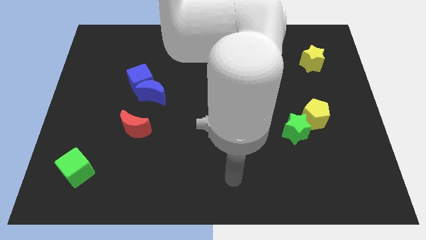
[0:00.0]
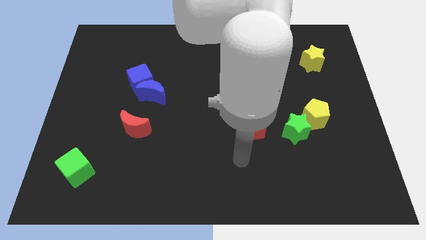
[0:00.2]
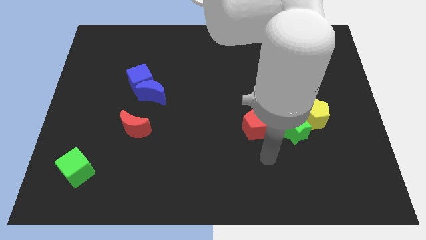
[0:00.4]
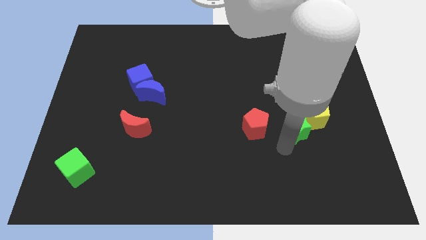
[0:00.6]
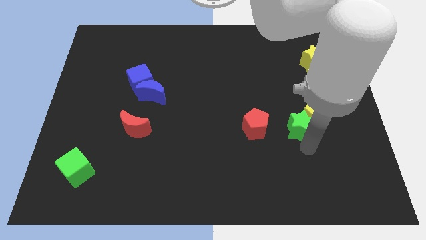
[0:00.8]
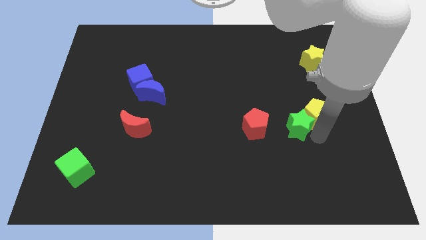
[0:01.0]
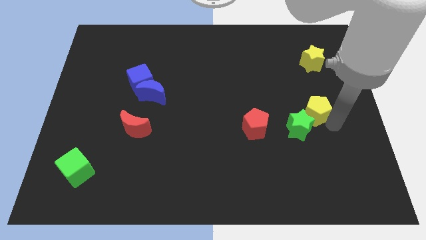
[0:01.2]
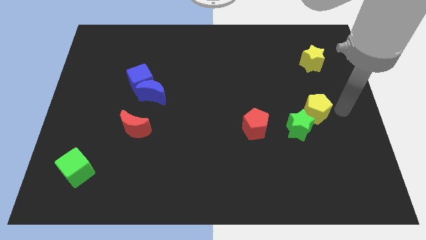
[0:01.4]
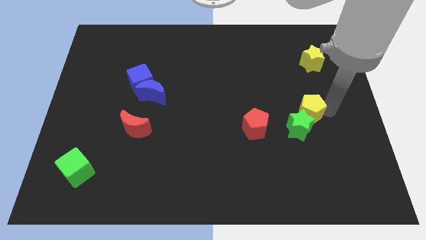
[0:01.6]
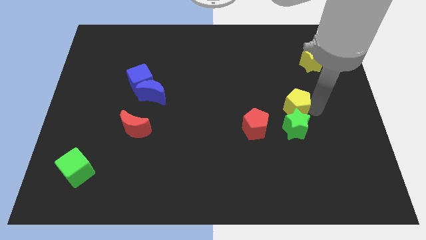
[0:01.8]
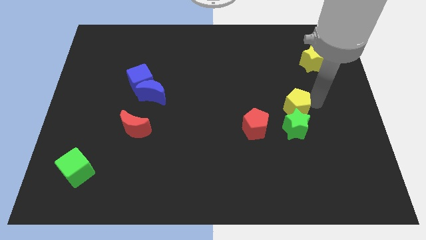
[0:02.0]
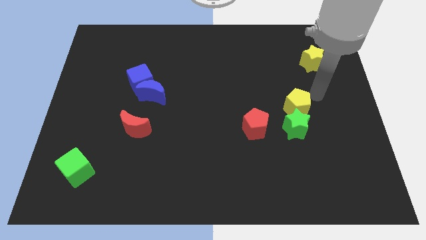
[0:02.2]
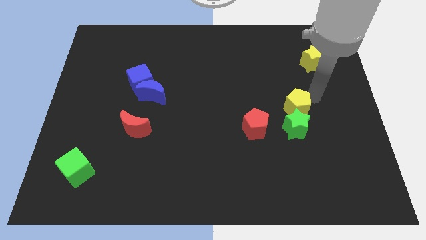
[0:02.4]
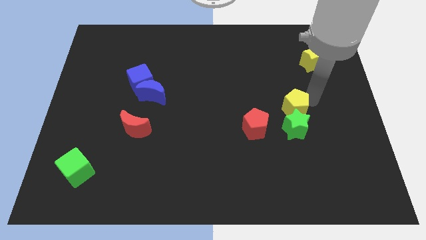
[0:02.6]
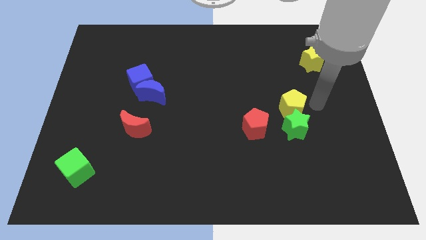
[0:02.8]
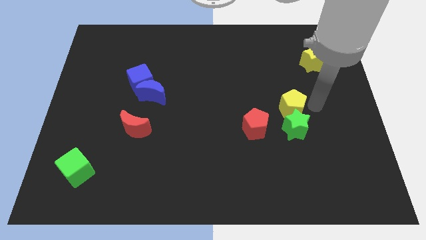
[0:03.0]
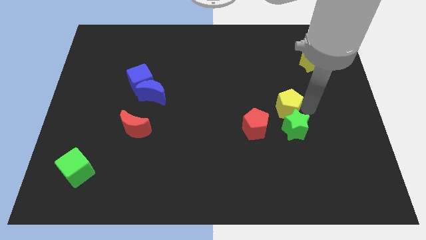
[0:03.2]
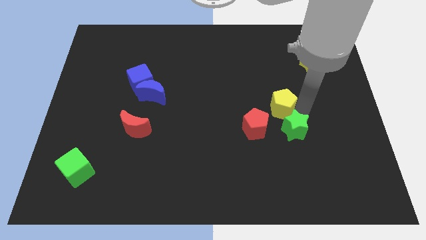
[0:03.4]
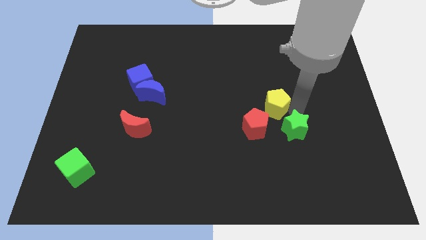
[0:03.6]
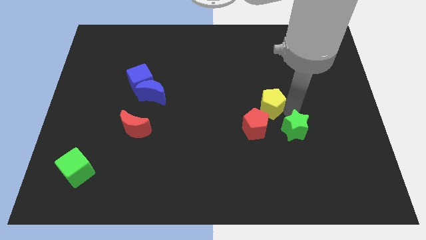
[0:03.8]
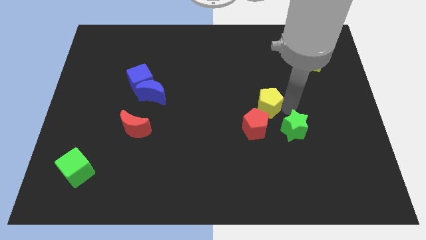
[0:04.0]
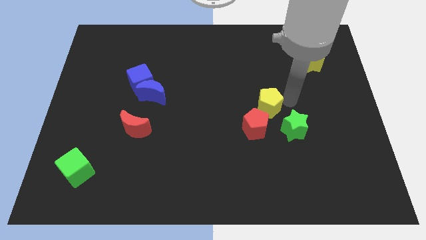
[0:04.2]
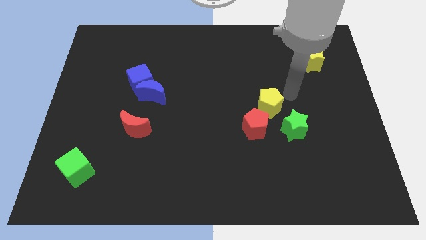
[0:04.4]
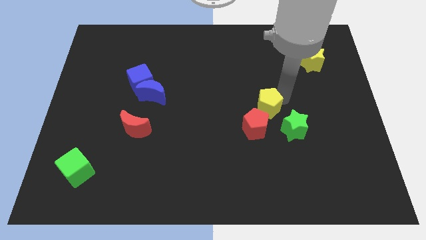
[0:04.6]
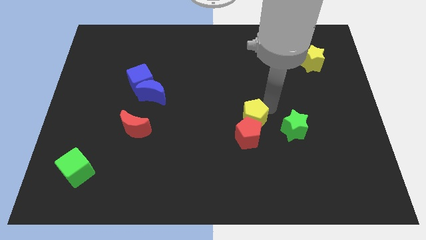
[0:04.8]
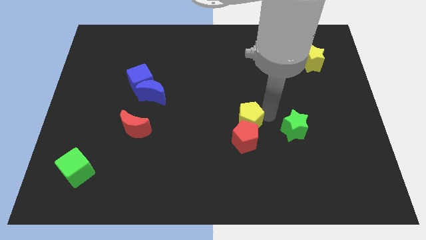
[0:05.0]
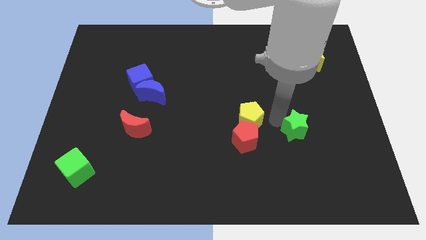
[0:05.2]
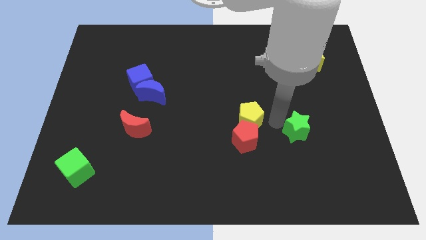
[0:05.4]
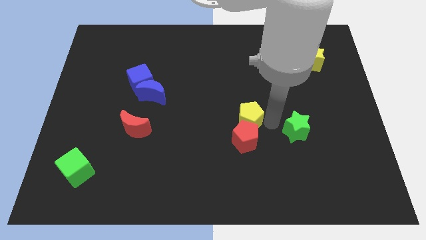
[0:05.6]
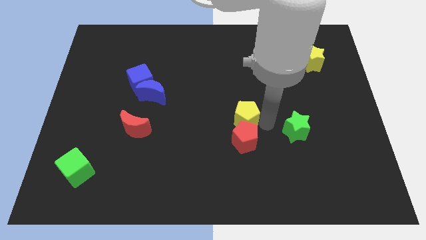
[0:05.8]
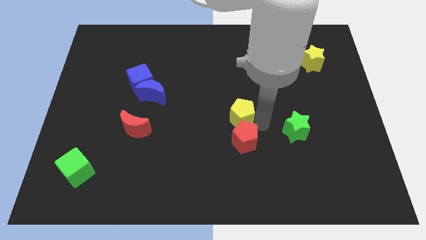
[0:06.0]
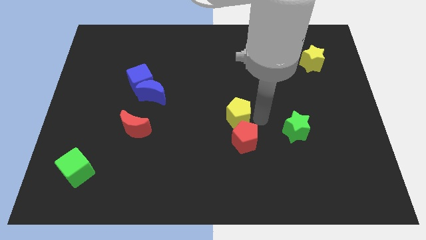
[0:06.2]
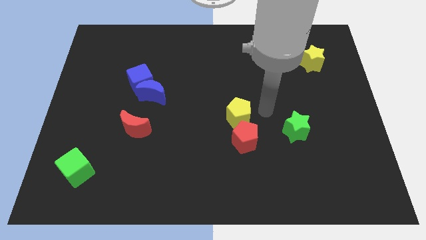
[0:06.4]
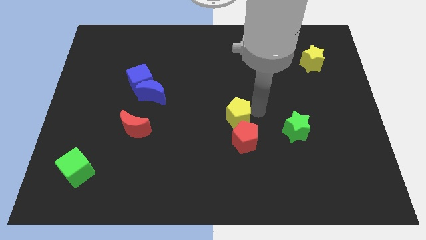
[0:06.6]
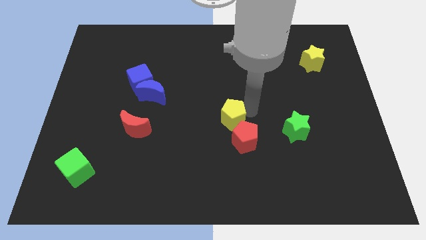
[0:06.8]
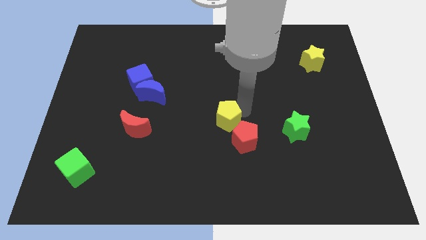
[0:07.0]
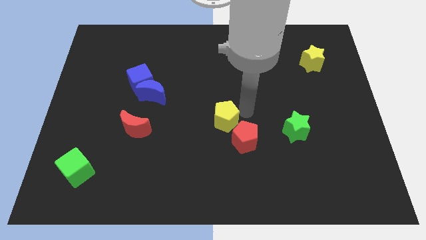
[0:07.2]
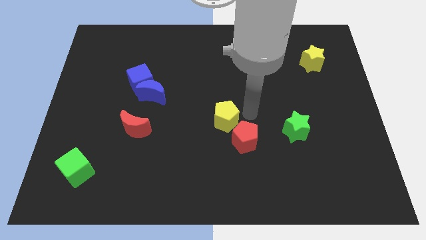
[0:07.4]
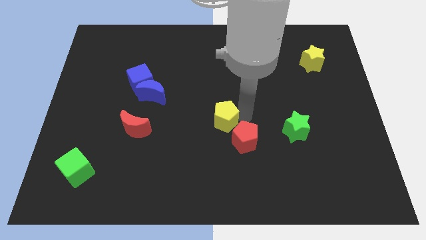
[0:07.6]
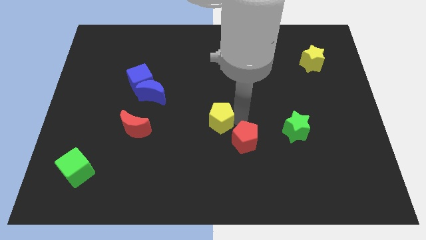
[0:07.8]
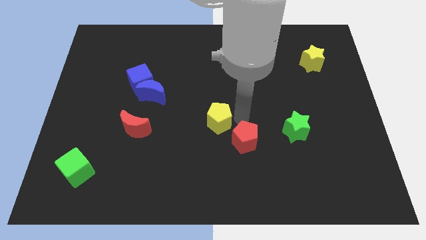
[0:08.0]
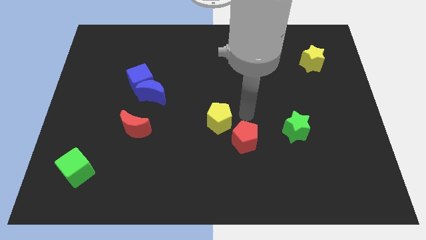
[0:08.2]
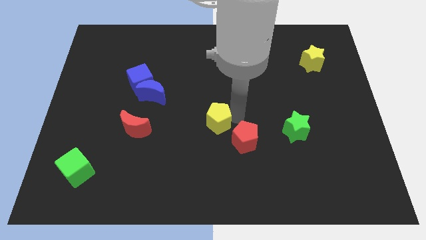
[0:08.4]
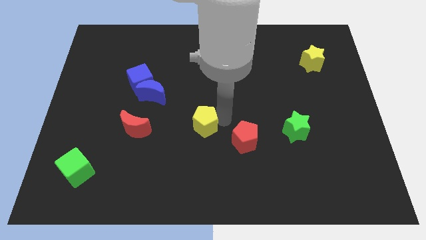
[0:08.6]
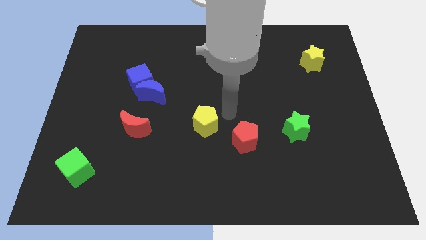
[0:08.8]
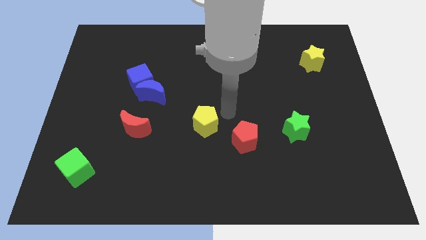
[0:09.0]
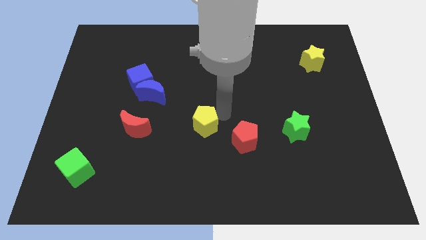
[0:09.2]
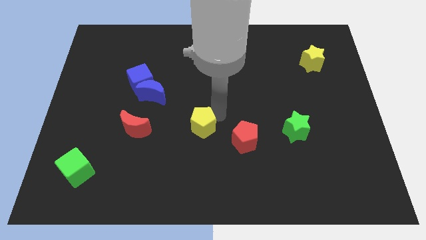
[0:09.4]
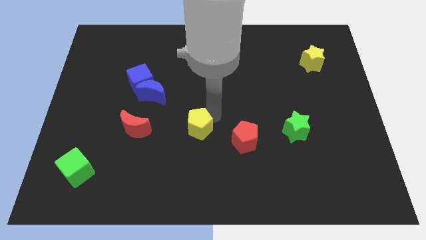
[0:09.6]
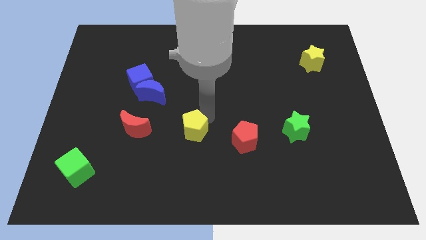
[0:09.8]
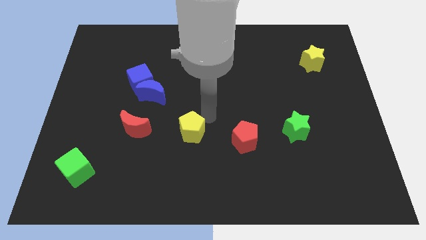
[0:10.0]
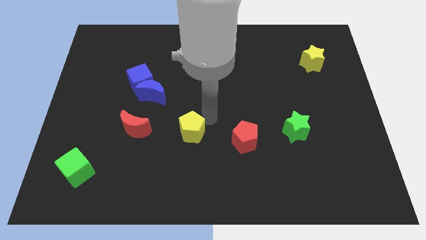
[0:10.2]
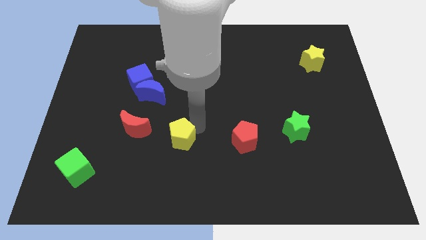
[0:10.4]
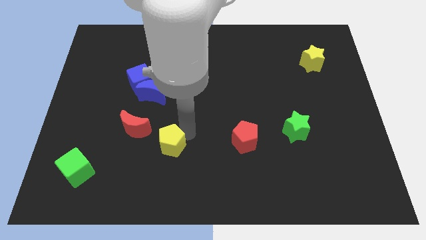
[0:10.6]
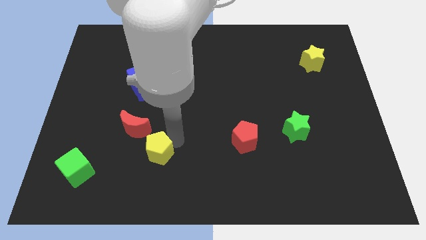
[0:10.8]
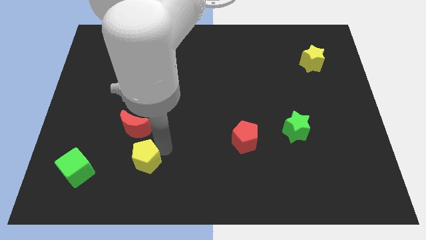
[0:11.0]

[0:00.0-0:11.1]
put the yellow pentagon to the right side of the green cube

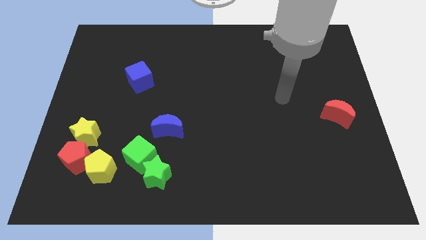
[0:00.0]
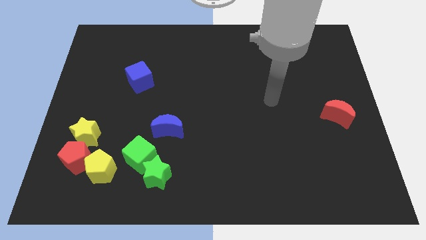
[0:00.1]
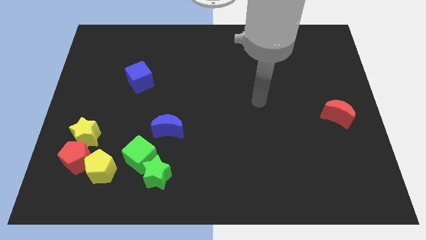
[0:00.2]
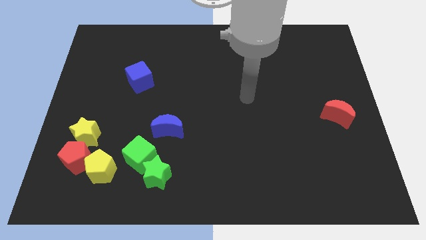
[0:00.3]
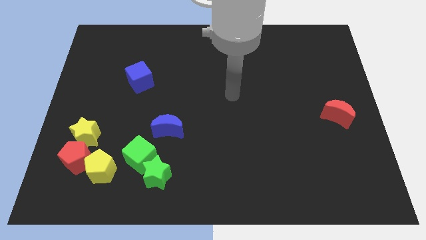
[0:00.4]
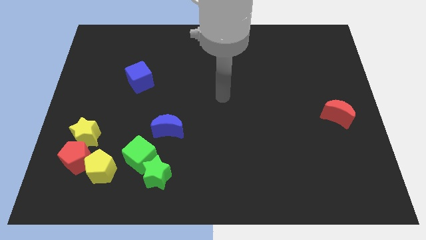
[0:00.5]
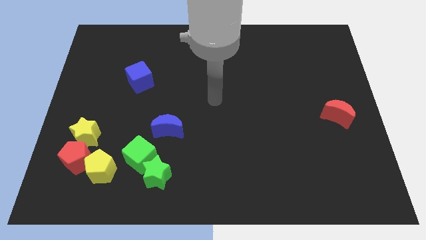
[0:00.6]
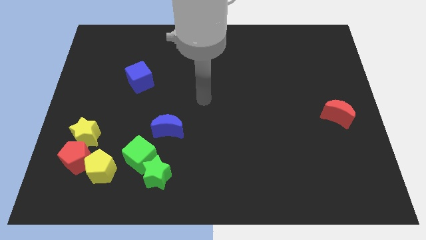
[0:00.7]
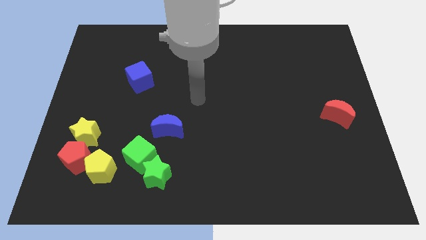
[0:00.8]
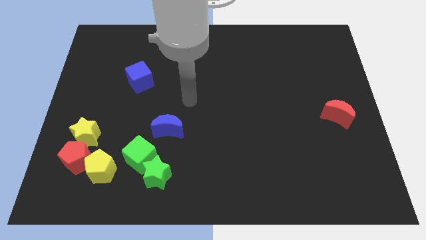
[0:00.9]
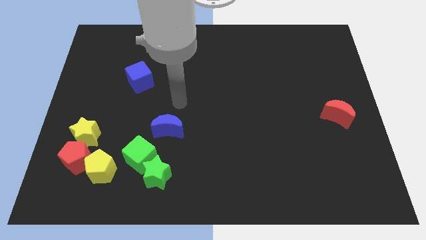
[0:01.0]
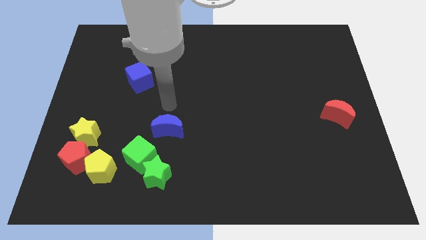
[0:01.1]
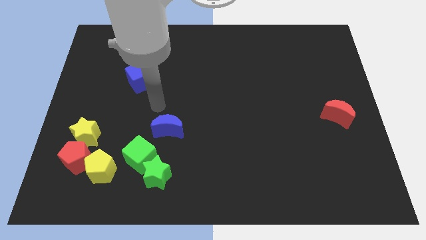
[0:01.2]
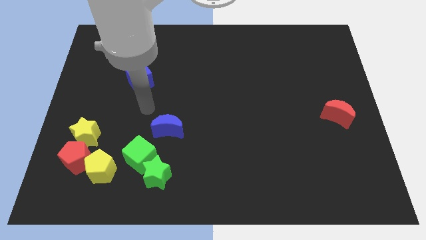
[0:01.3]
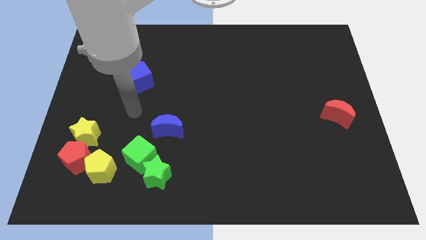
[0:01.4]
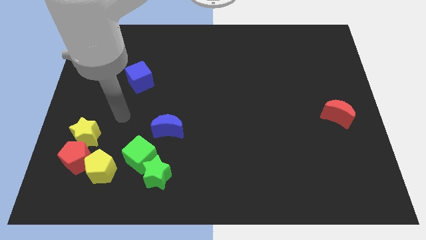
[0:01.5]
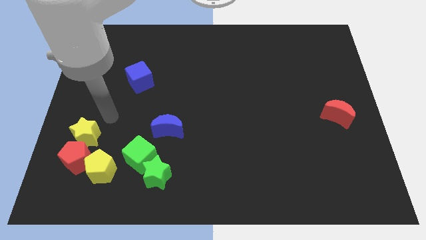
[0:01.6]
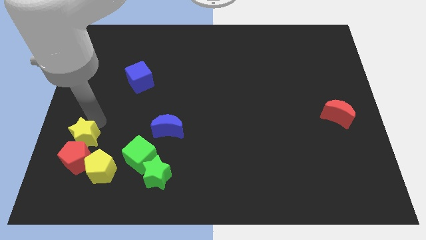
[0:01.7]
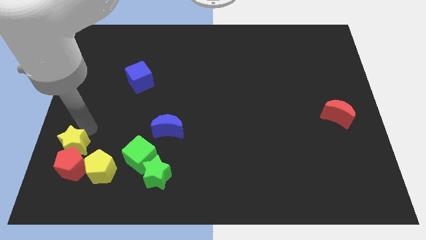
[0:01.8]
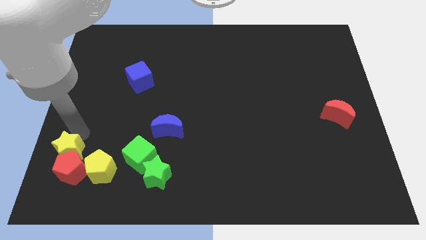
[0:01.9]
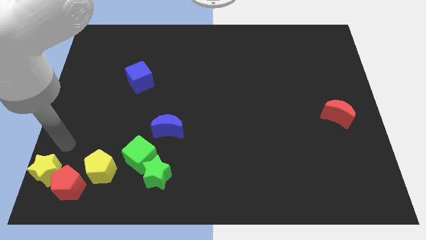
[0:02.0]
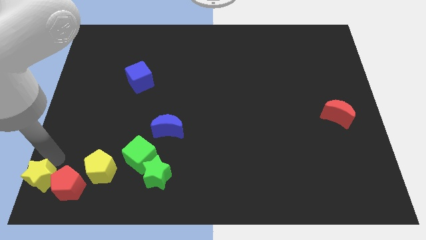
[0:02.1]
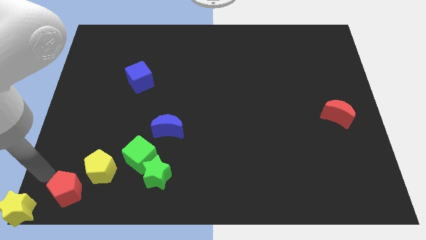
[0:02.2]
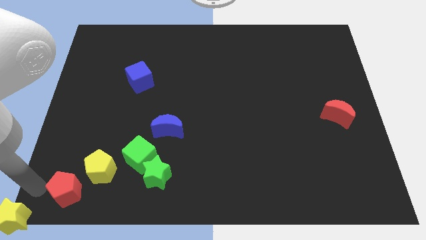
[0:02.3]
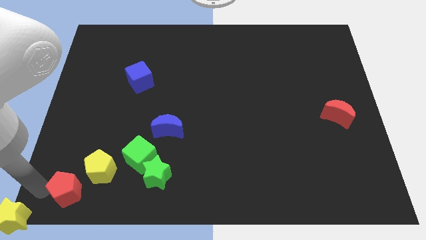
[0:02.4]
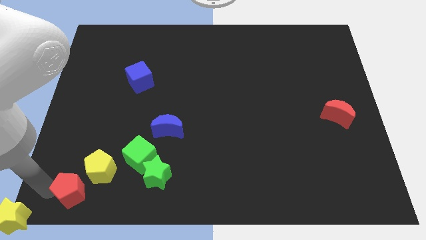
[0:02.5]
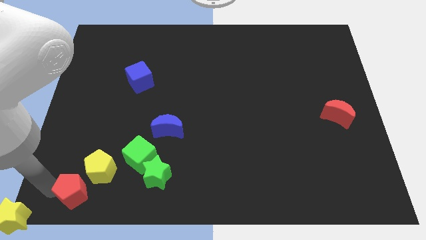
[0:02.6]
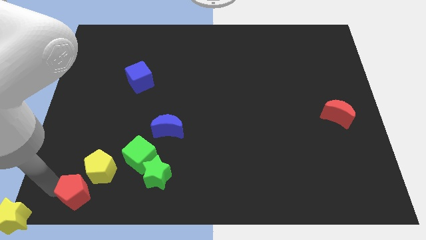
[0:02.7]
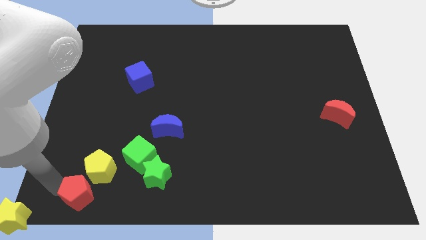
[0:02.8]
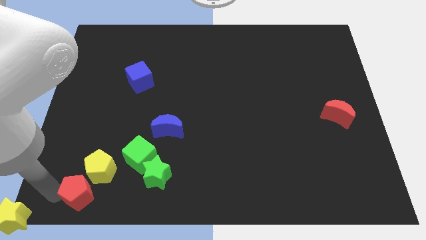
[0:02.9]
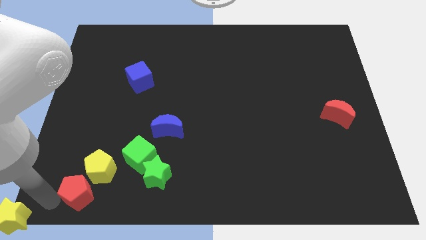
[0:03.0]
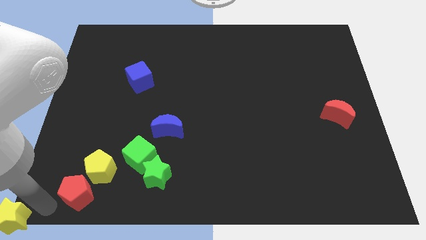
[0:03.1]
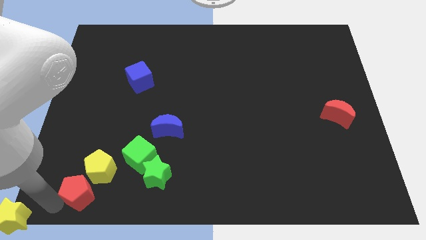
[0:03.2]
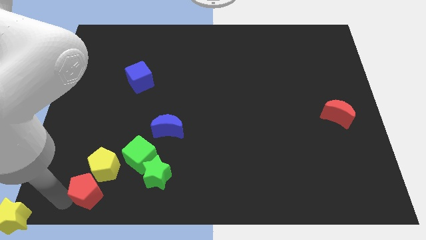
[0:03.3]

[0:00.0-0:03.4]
move the red pentagon diagonally down and to the left of the green cube
